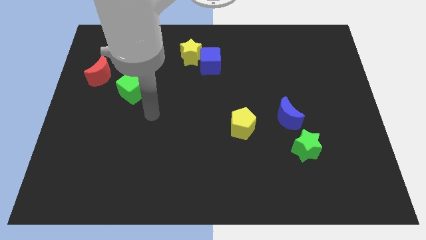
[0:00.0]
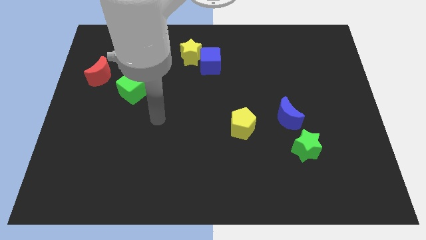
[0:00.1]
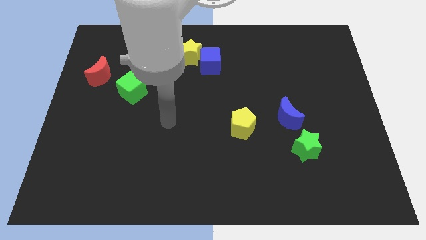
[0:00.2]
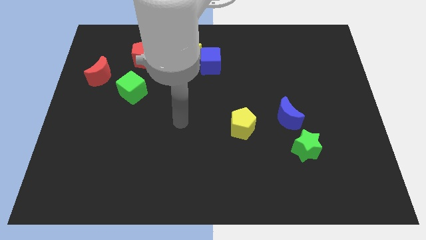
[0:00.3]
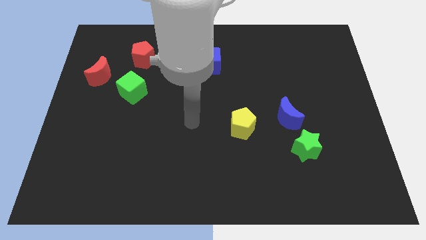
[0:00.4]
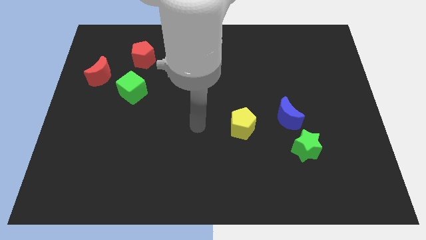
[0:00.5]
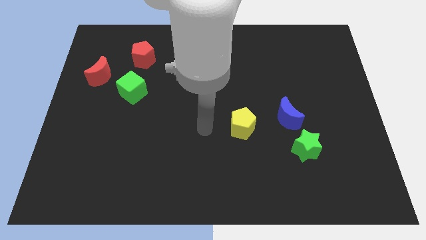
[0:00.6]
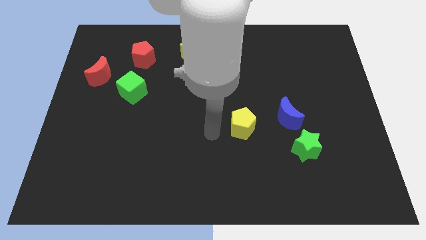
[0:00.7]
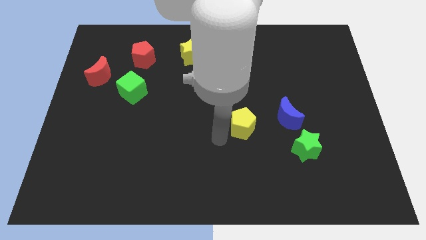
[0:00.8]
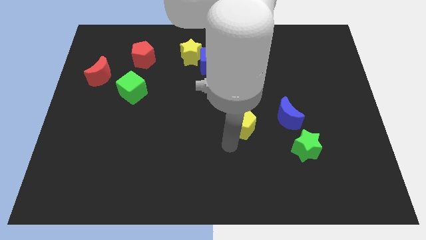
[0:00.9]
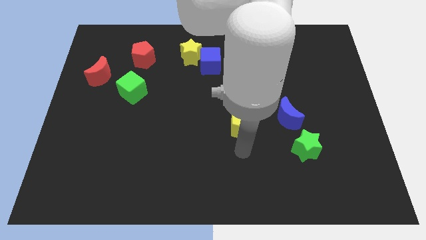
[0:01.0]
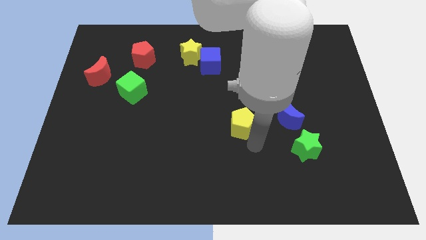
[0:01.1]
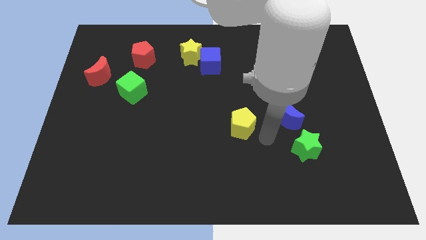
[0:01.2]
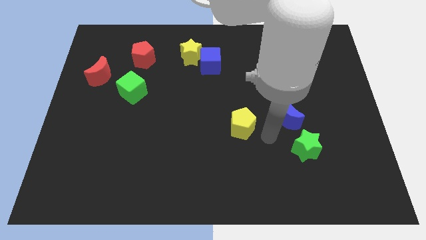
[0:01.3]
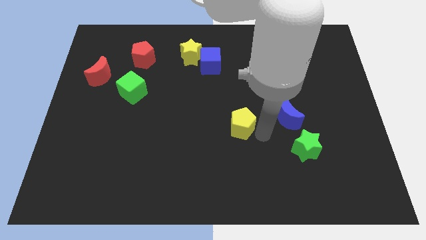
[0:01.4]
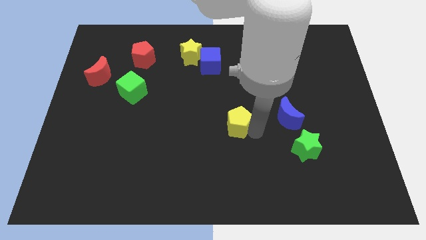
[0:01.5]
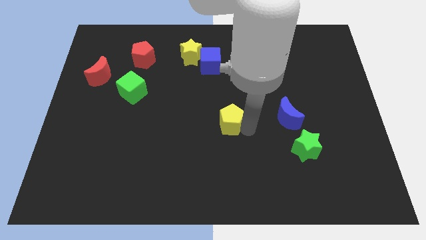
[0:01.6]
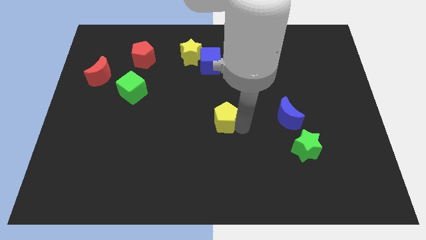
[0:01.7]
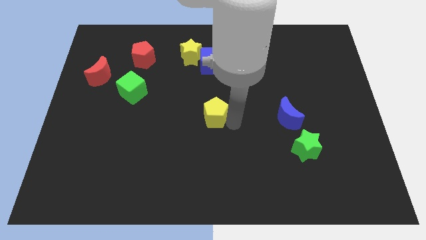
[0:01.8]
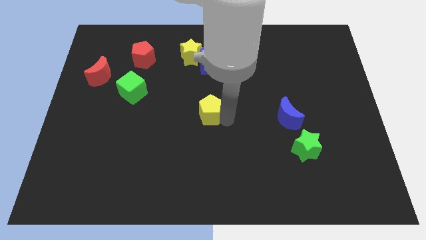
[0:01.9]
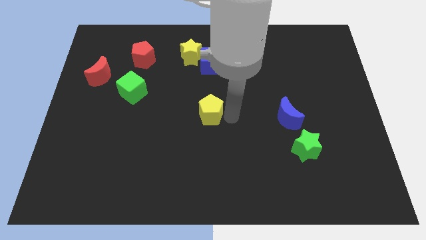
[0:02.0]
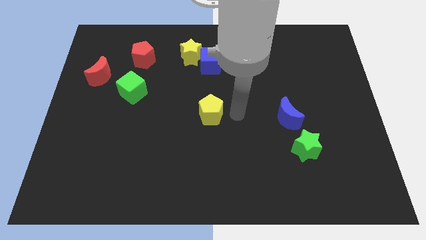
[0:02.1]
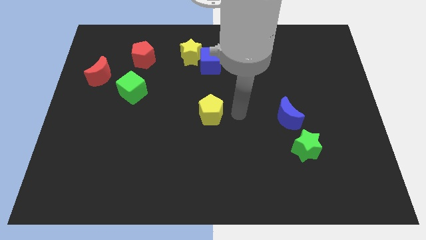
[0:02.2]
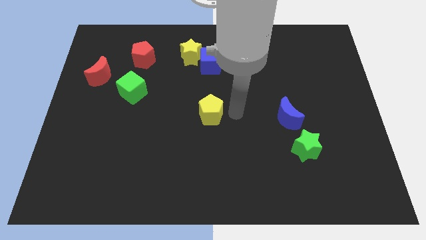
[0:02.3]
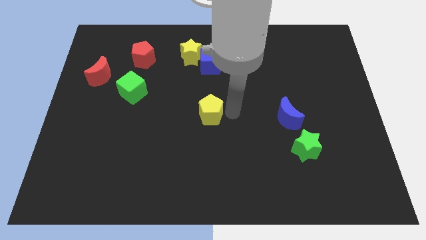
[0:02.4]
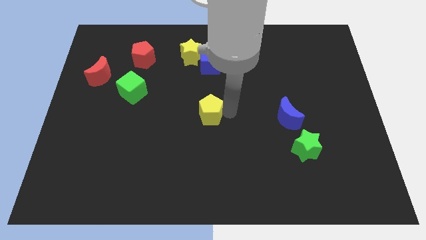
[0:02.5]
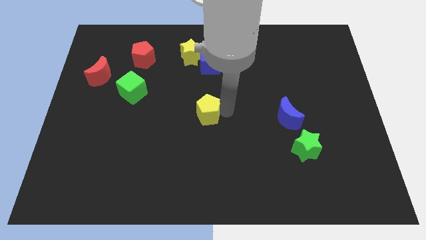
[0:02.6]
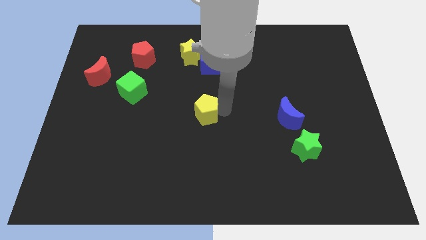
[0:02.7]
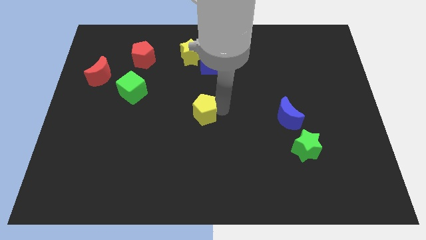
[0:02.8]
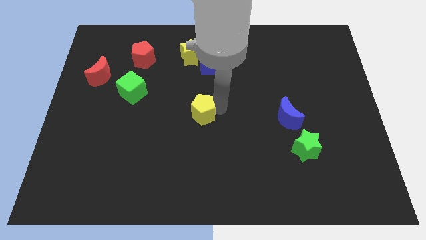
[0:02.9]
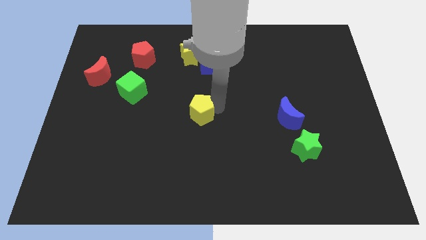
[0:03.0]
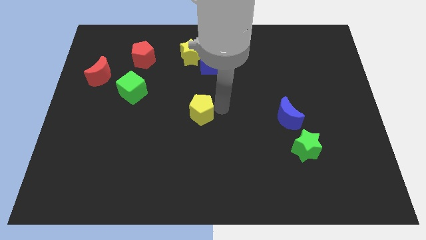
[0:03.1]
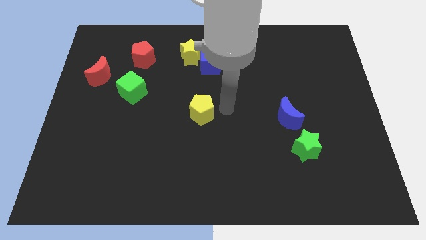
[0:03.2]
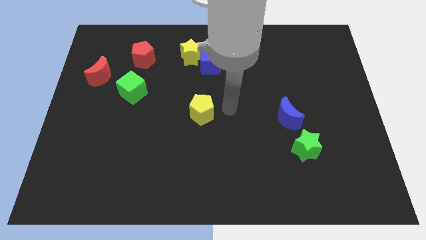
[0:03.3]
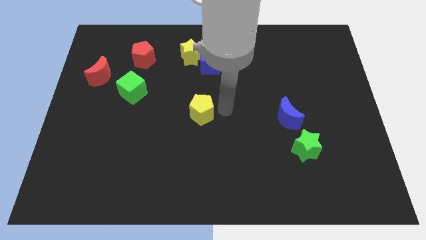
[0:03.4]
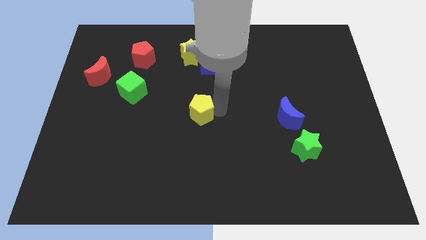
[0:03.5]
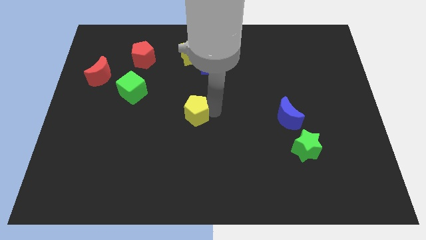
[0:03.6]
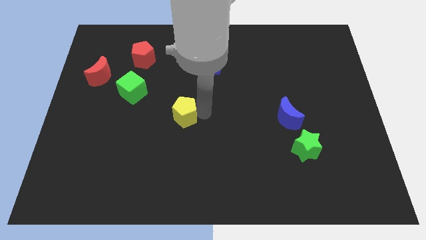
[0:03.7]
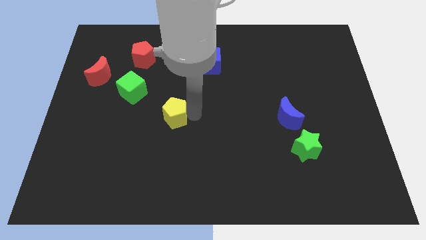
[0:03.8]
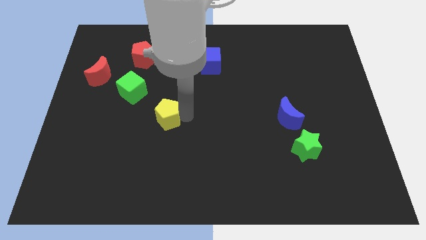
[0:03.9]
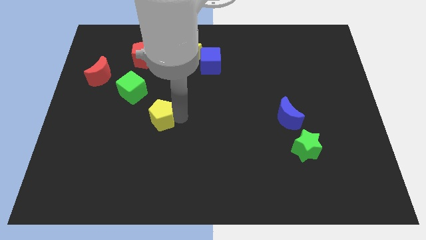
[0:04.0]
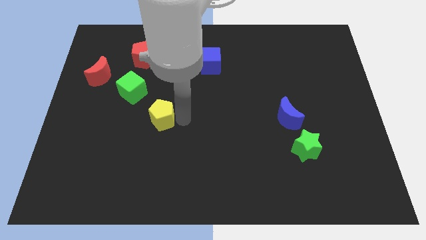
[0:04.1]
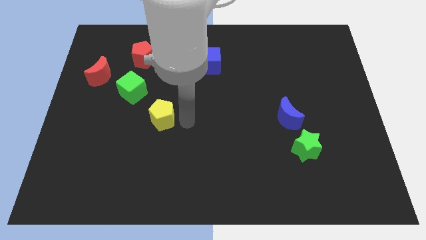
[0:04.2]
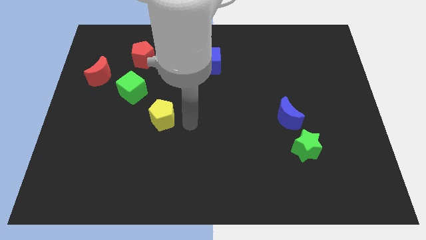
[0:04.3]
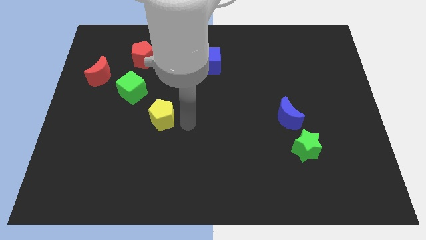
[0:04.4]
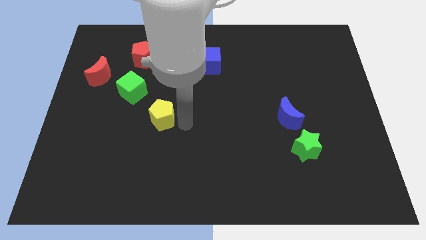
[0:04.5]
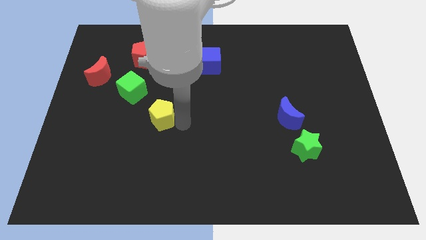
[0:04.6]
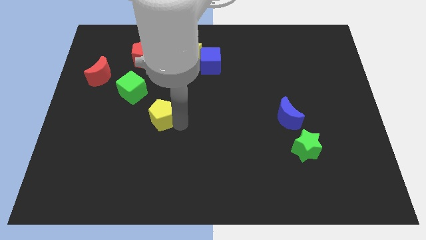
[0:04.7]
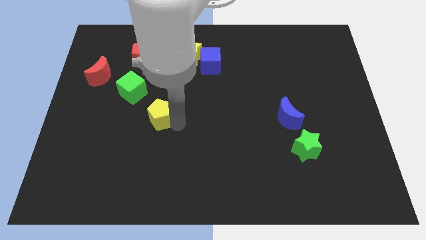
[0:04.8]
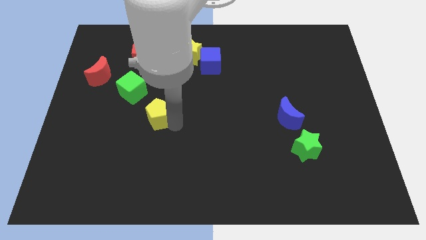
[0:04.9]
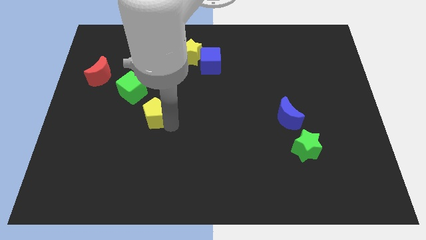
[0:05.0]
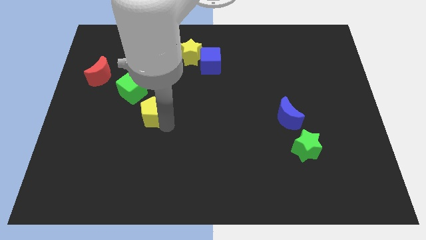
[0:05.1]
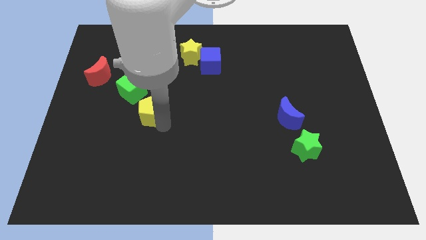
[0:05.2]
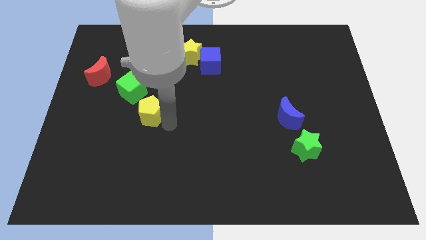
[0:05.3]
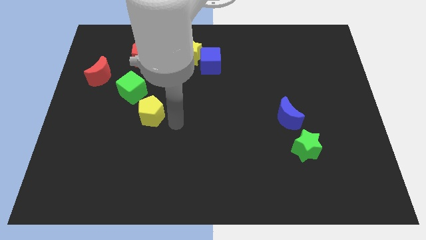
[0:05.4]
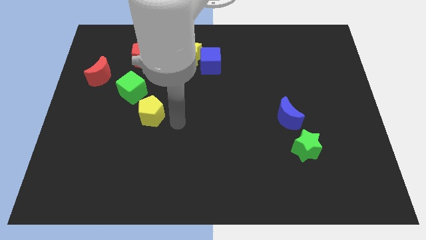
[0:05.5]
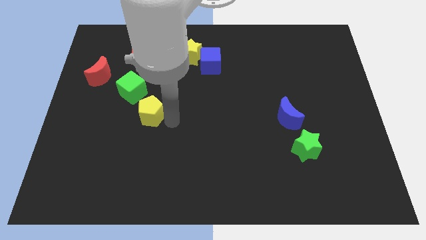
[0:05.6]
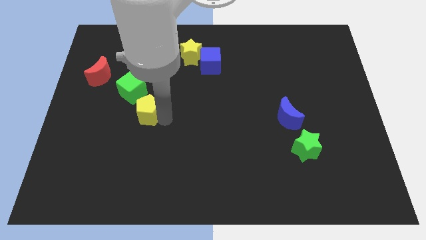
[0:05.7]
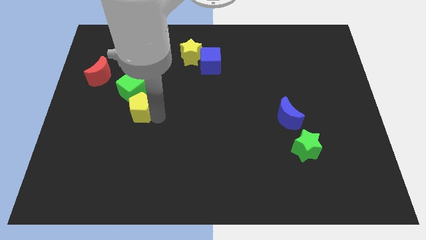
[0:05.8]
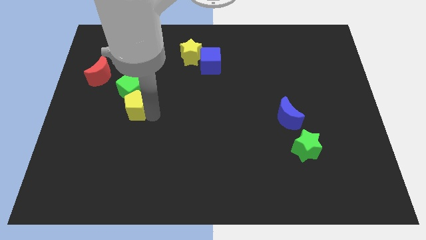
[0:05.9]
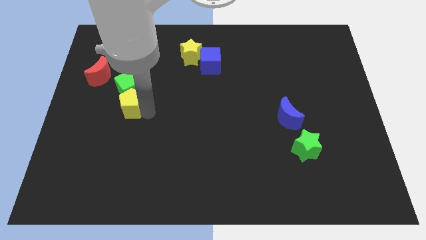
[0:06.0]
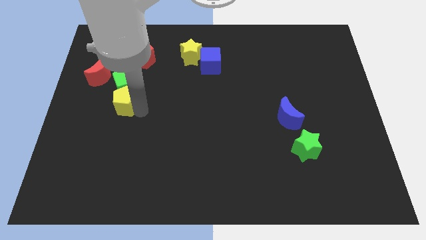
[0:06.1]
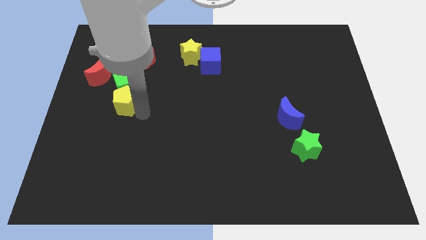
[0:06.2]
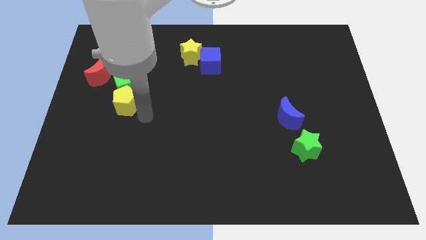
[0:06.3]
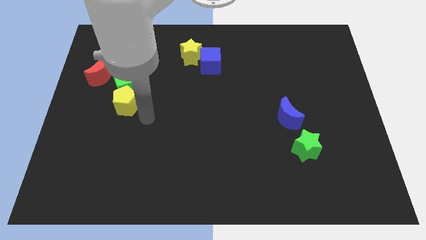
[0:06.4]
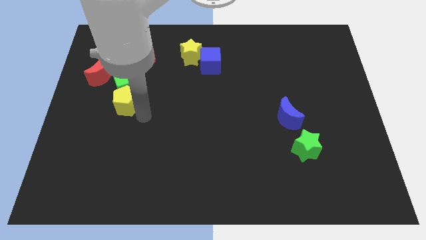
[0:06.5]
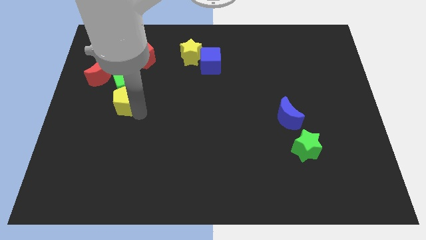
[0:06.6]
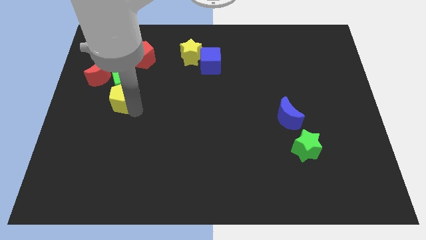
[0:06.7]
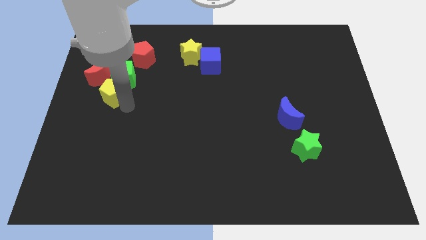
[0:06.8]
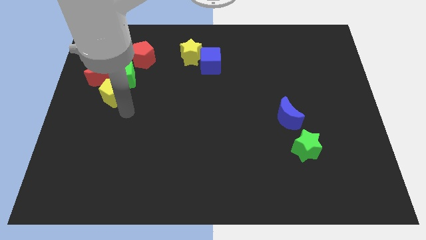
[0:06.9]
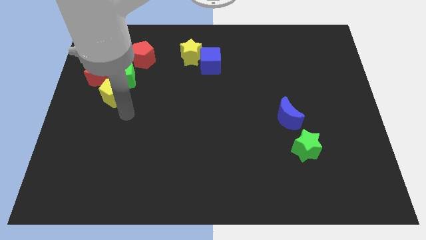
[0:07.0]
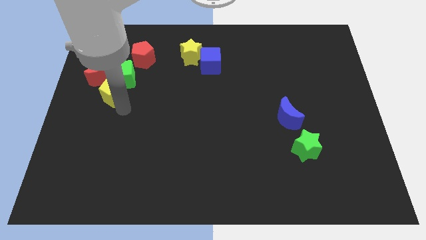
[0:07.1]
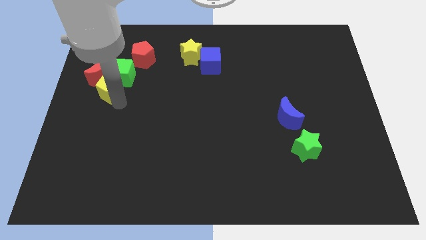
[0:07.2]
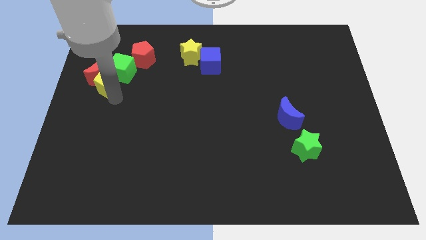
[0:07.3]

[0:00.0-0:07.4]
slide the yellow pentagon towards the red moon
